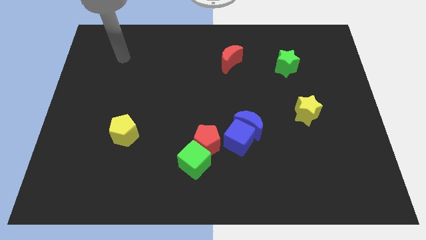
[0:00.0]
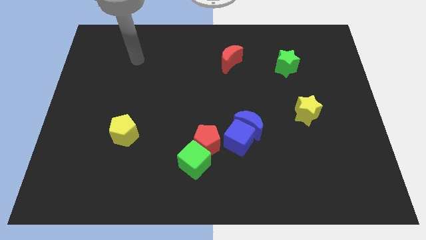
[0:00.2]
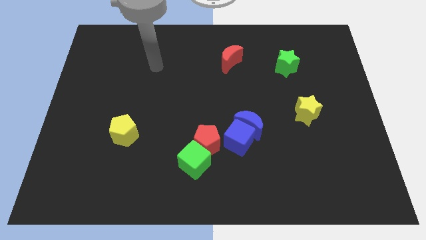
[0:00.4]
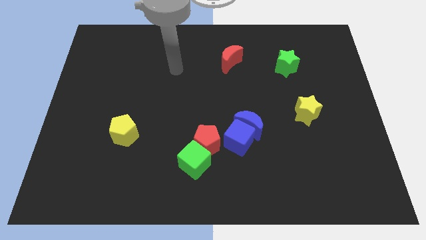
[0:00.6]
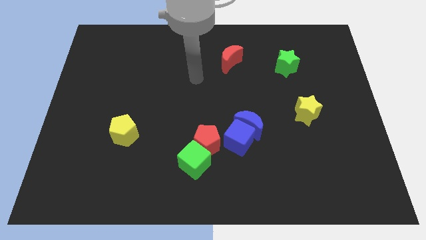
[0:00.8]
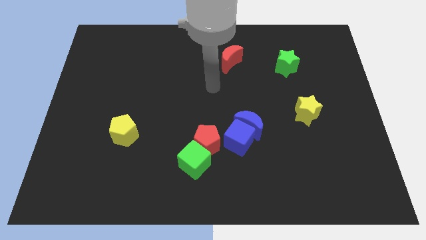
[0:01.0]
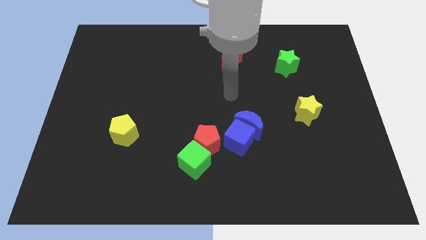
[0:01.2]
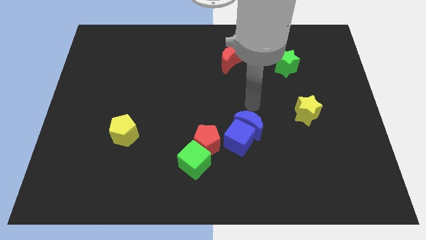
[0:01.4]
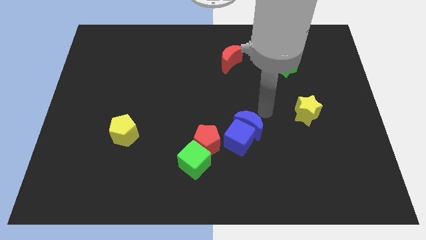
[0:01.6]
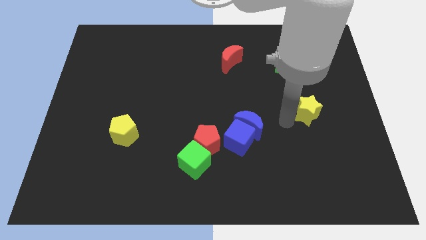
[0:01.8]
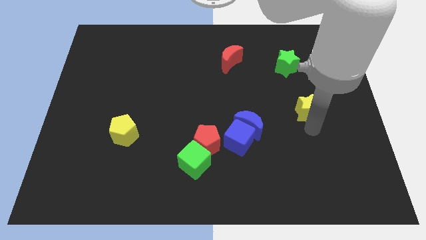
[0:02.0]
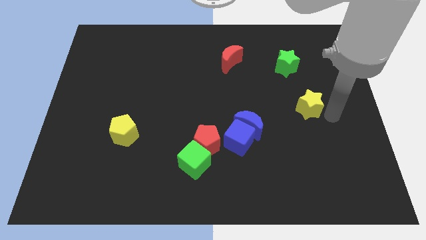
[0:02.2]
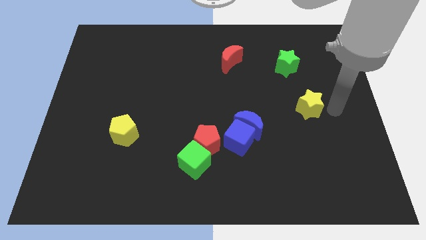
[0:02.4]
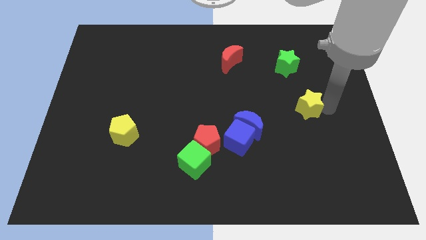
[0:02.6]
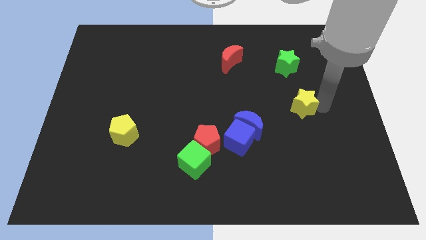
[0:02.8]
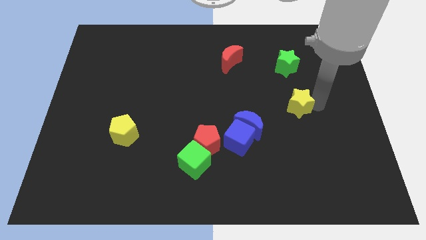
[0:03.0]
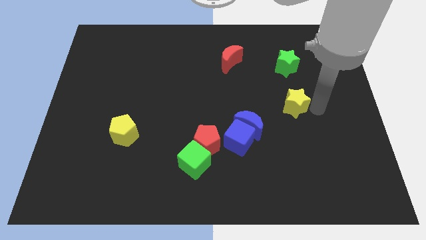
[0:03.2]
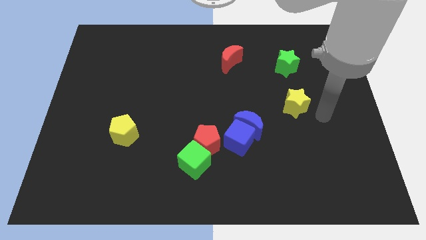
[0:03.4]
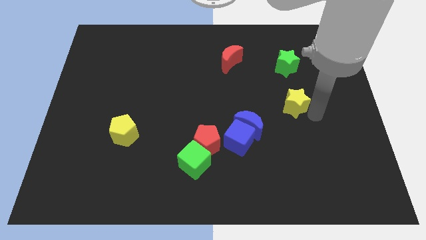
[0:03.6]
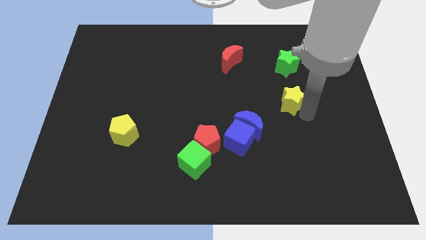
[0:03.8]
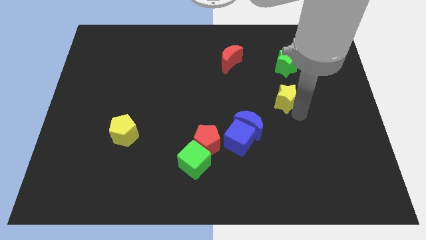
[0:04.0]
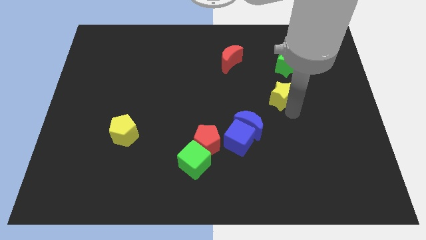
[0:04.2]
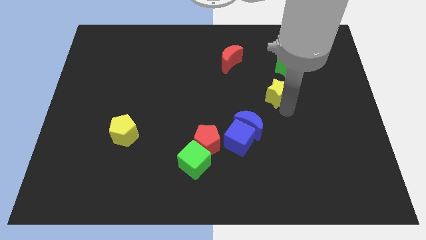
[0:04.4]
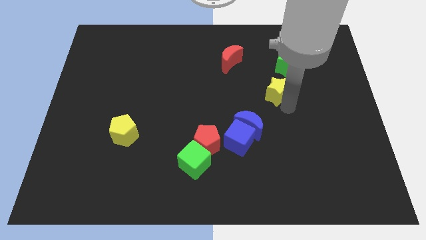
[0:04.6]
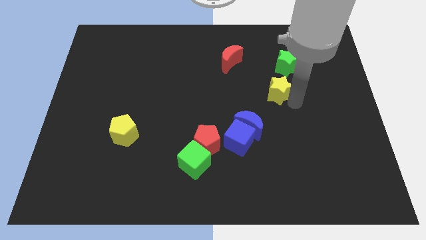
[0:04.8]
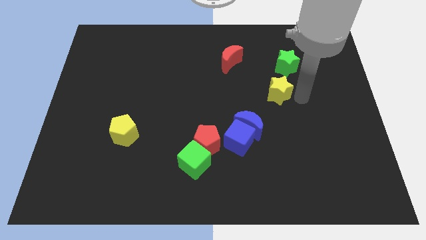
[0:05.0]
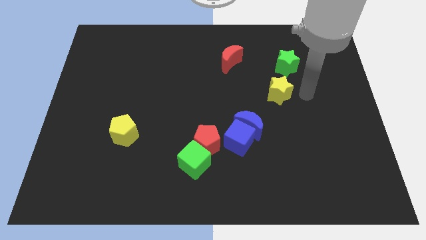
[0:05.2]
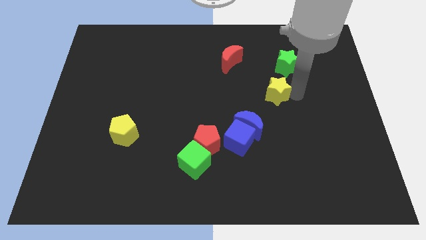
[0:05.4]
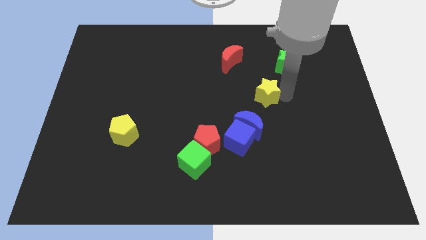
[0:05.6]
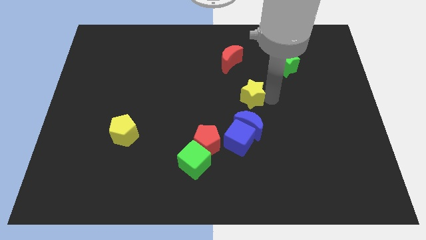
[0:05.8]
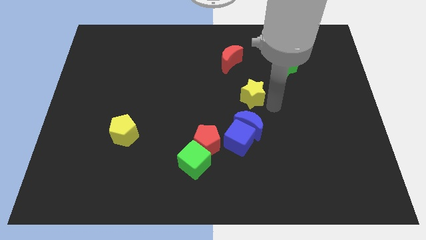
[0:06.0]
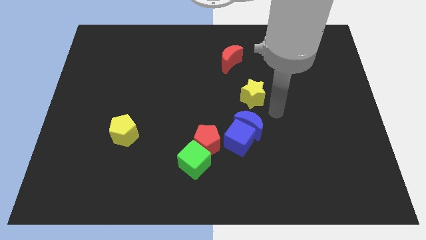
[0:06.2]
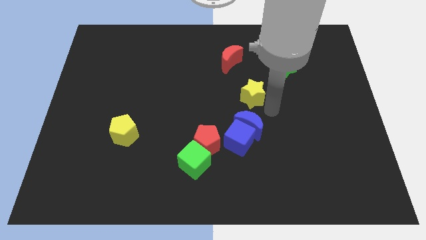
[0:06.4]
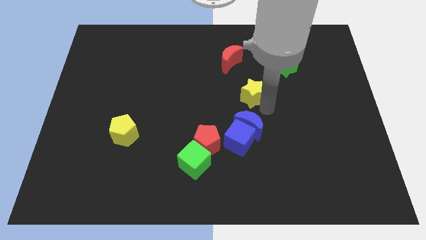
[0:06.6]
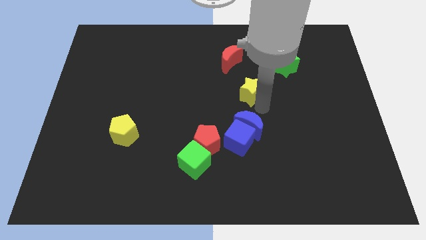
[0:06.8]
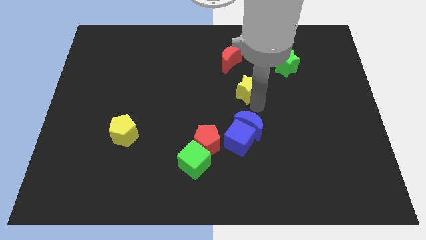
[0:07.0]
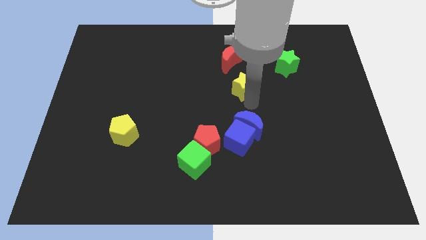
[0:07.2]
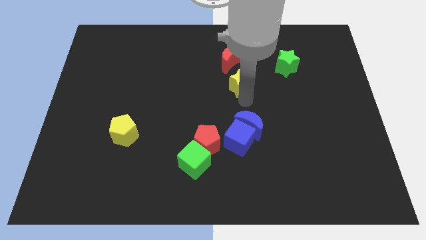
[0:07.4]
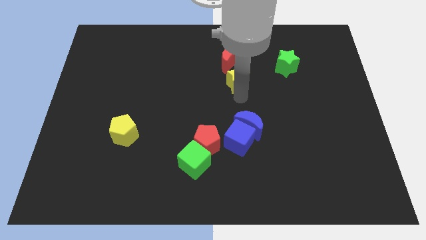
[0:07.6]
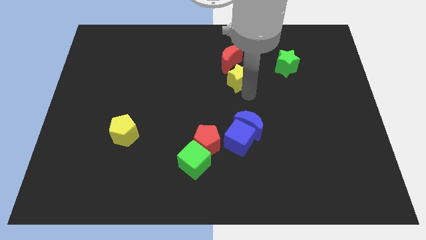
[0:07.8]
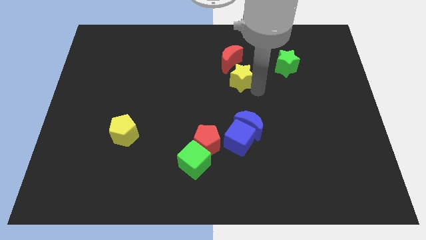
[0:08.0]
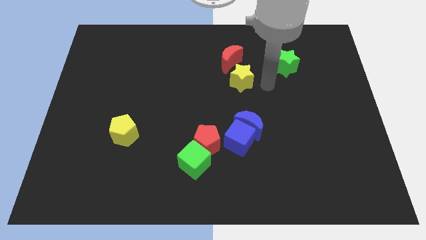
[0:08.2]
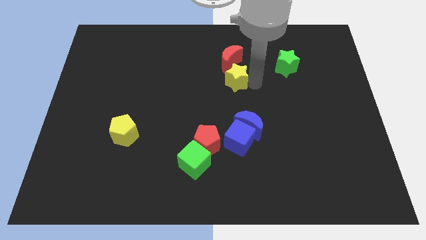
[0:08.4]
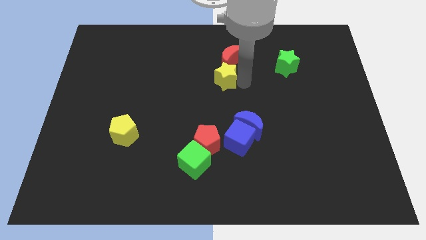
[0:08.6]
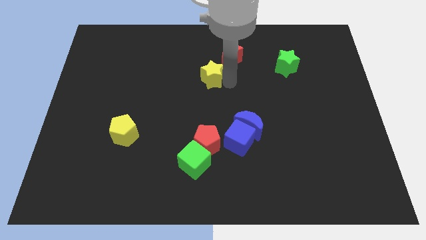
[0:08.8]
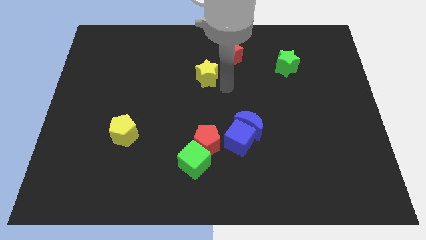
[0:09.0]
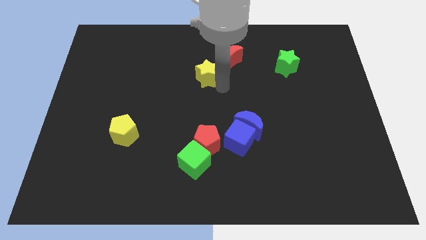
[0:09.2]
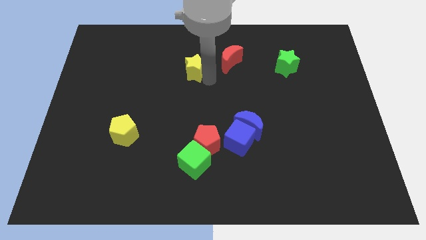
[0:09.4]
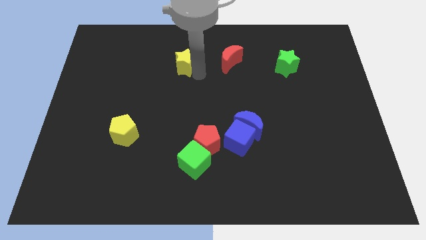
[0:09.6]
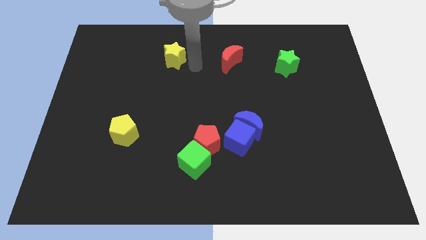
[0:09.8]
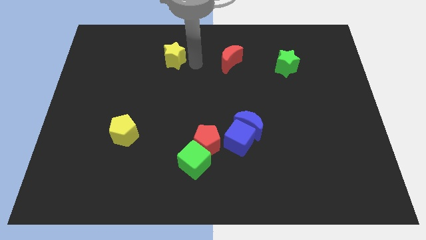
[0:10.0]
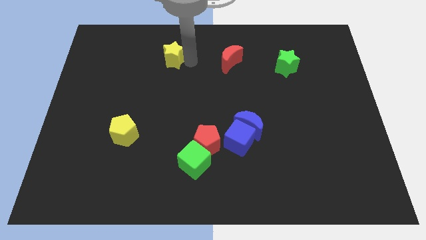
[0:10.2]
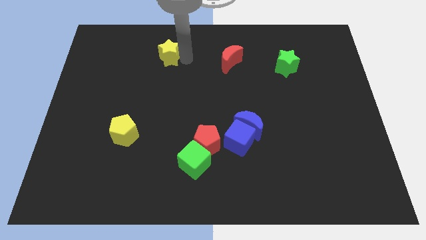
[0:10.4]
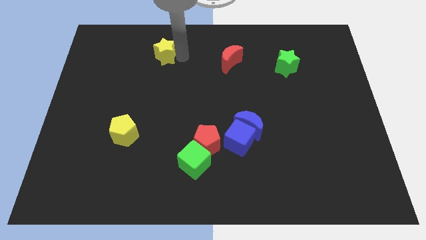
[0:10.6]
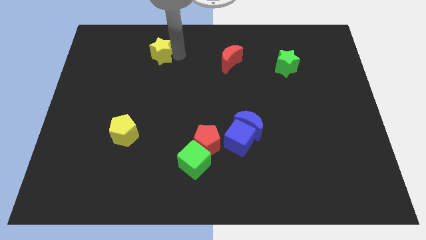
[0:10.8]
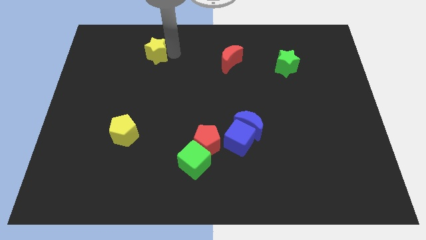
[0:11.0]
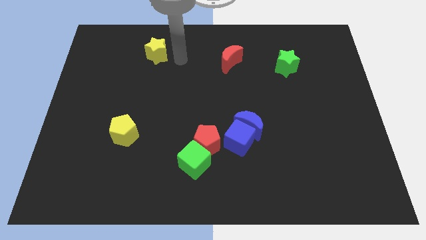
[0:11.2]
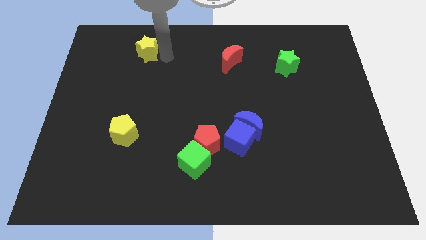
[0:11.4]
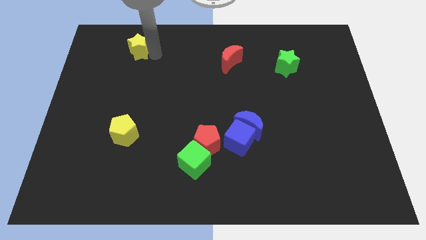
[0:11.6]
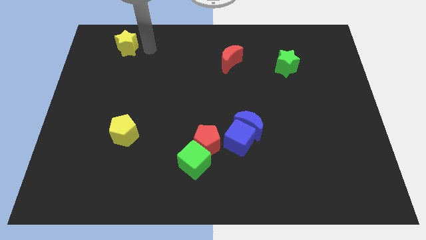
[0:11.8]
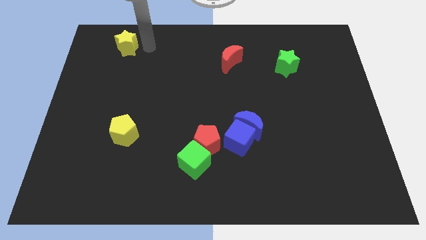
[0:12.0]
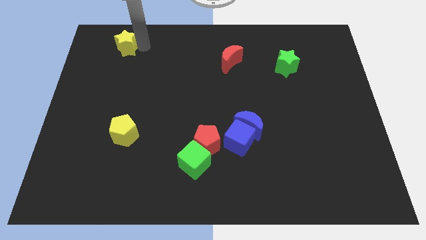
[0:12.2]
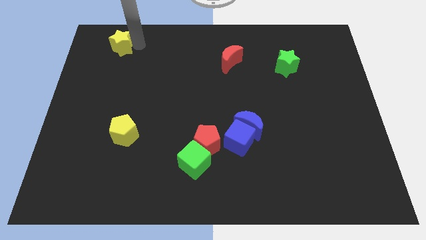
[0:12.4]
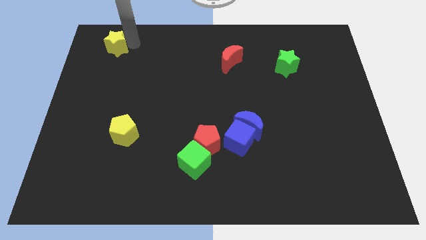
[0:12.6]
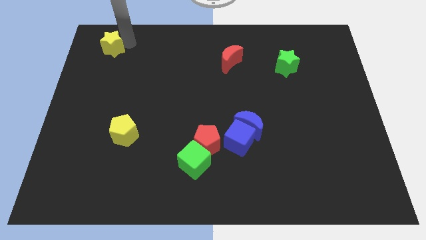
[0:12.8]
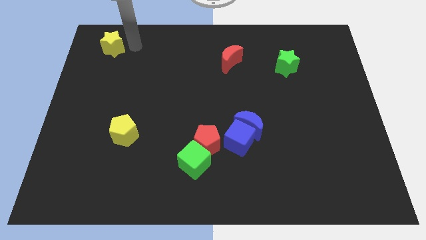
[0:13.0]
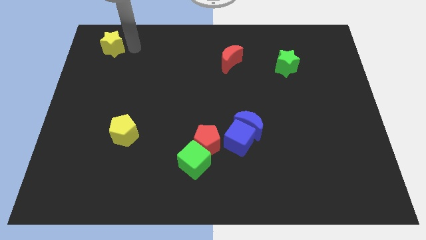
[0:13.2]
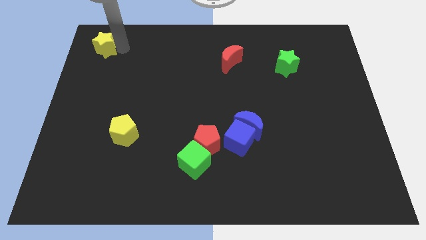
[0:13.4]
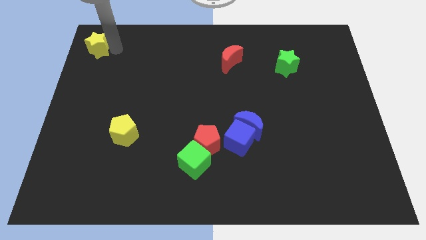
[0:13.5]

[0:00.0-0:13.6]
slide the yellow star to the upper left corner
